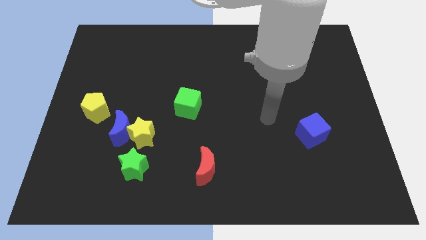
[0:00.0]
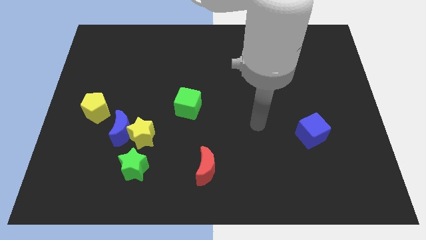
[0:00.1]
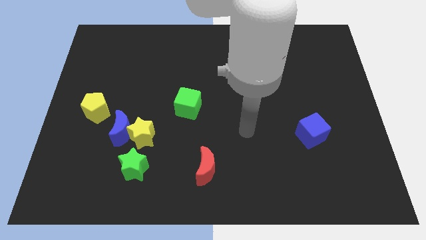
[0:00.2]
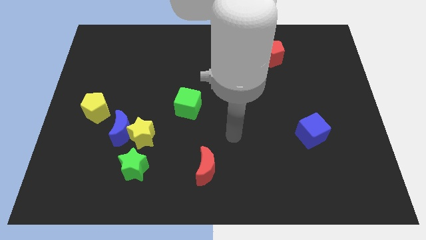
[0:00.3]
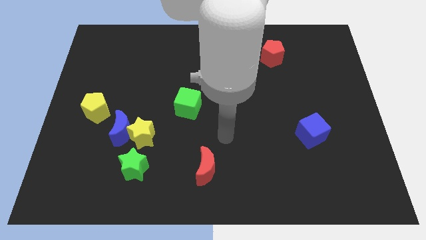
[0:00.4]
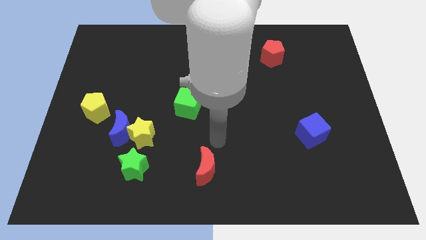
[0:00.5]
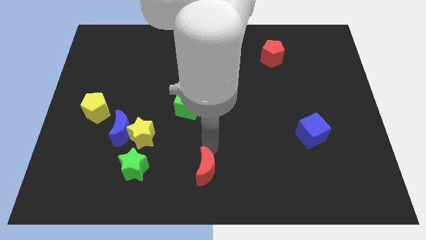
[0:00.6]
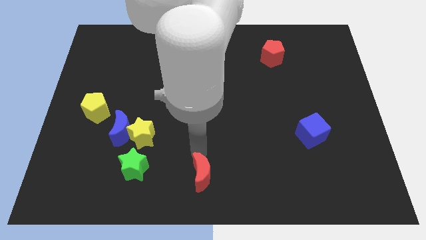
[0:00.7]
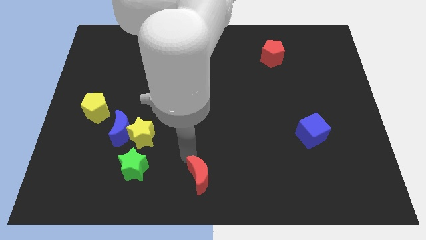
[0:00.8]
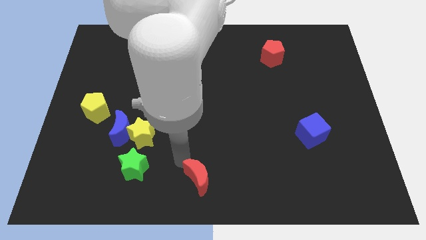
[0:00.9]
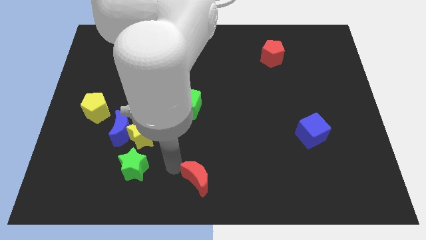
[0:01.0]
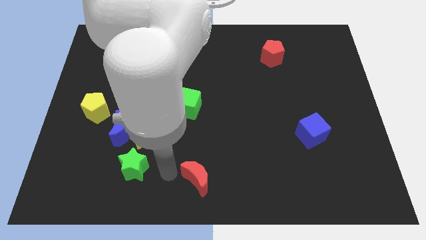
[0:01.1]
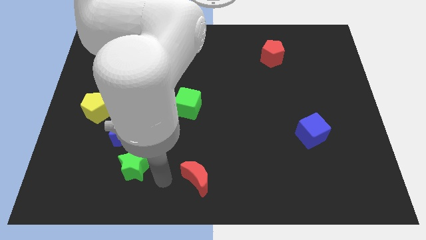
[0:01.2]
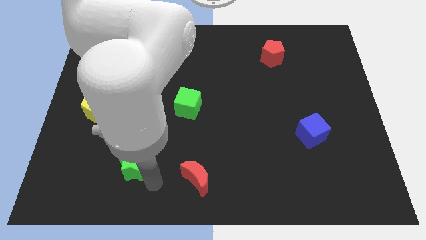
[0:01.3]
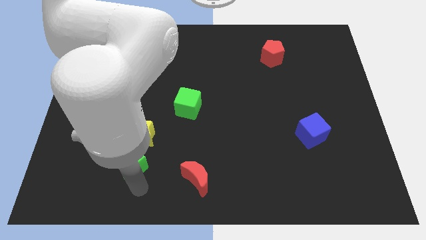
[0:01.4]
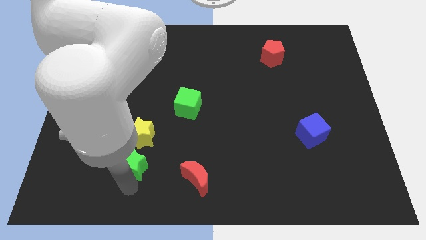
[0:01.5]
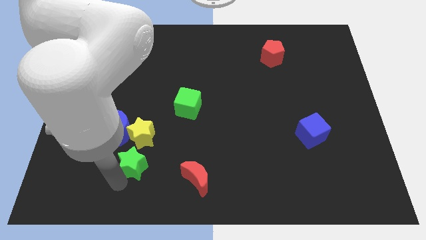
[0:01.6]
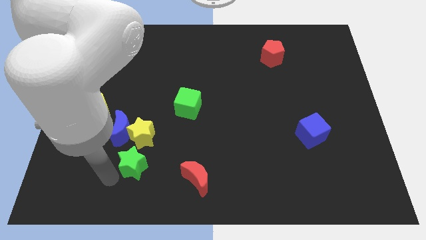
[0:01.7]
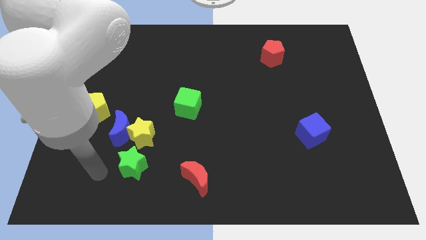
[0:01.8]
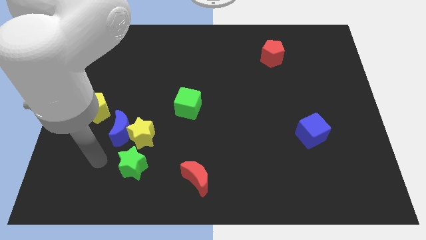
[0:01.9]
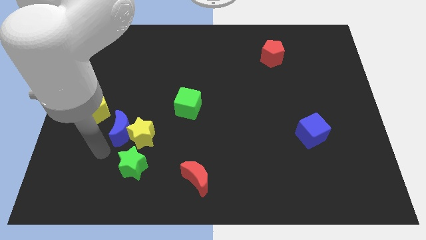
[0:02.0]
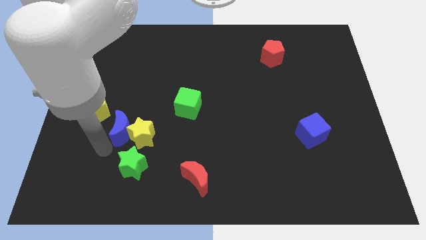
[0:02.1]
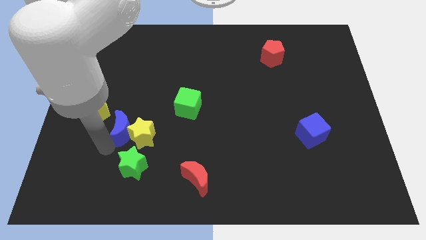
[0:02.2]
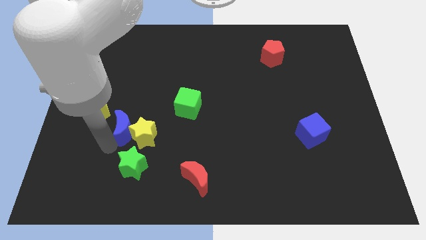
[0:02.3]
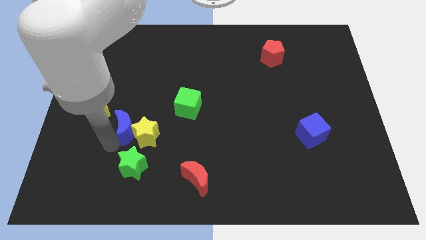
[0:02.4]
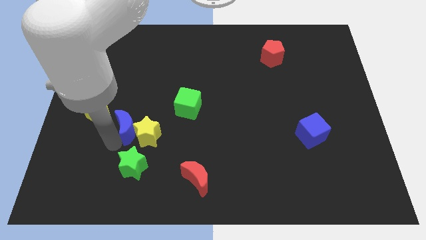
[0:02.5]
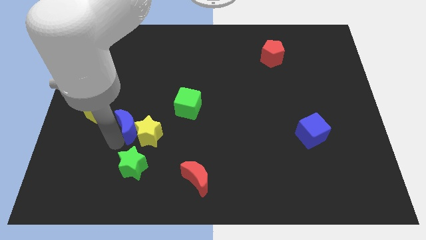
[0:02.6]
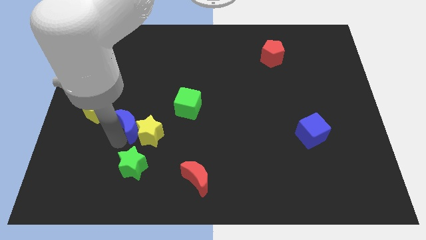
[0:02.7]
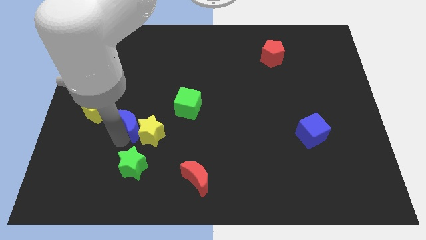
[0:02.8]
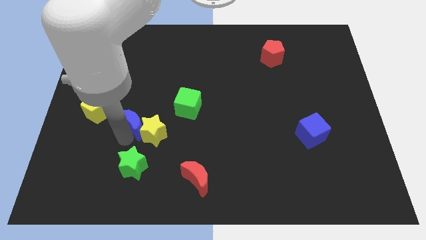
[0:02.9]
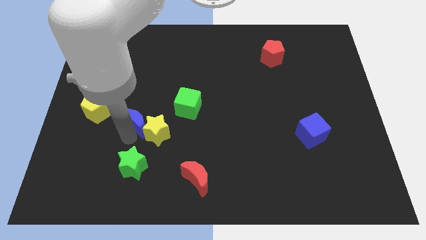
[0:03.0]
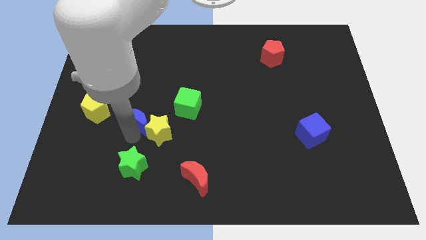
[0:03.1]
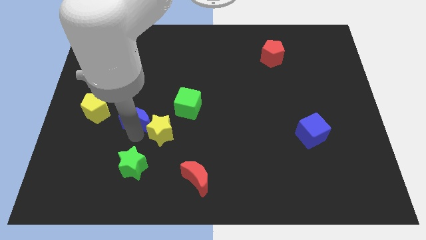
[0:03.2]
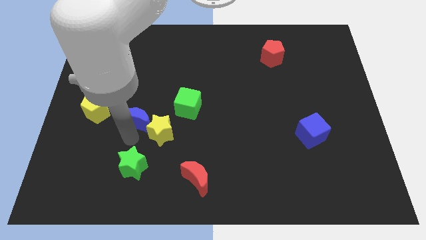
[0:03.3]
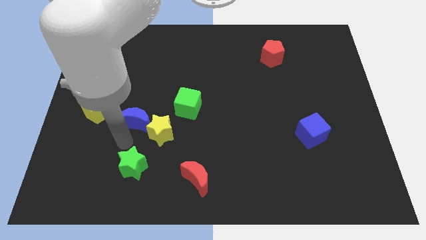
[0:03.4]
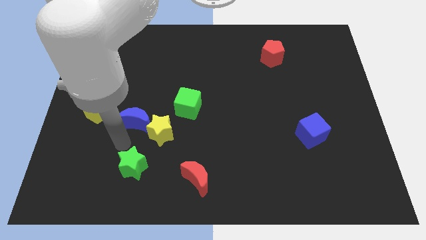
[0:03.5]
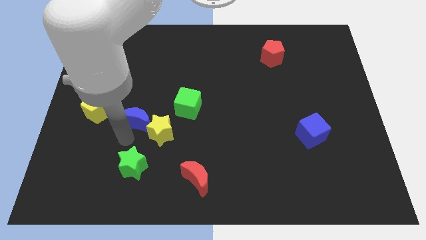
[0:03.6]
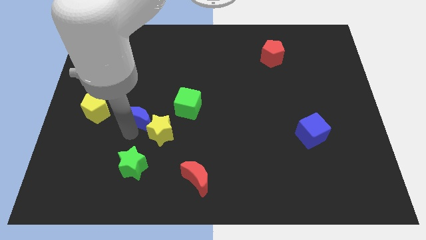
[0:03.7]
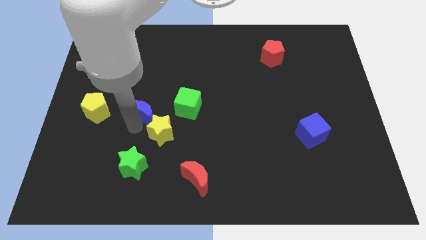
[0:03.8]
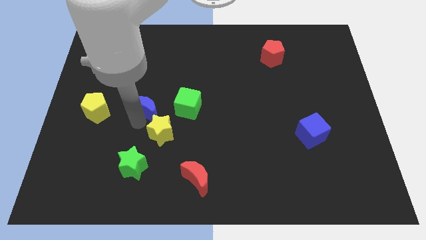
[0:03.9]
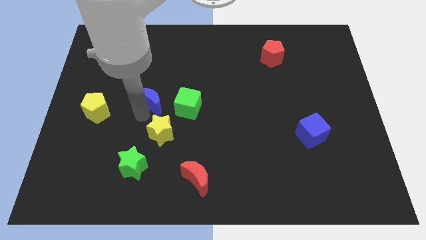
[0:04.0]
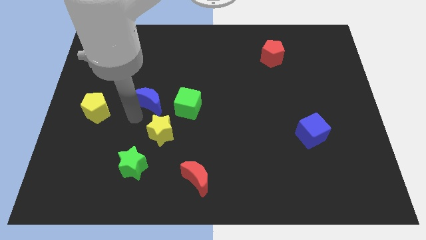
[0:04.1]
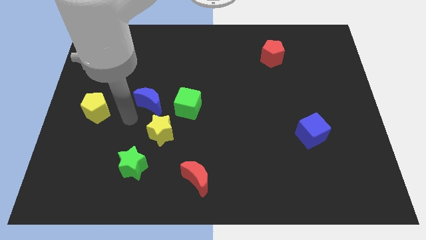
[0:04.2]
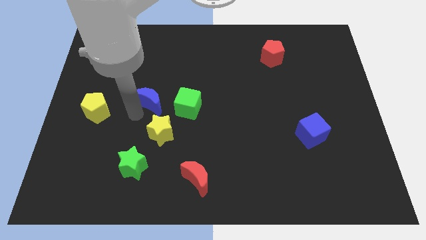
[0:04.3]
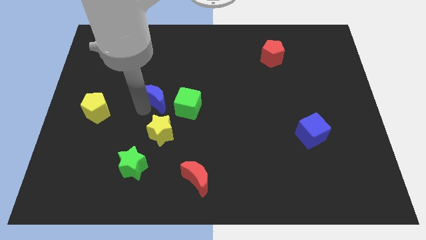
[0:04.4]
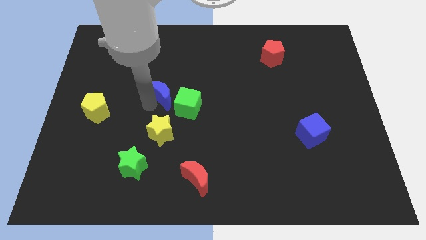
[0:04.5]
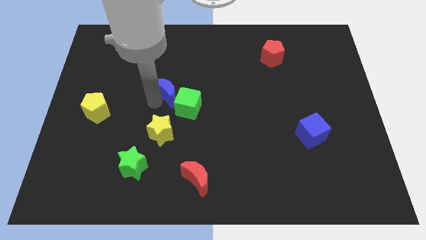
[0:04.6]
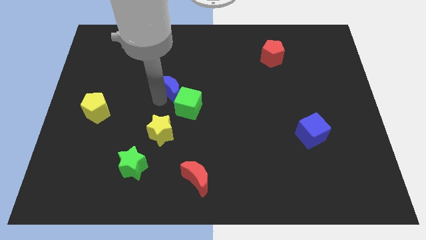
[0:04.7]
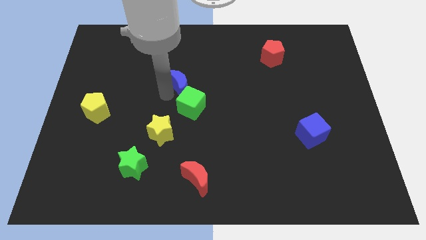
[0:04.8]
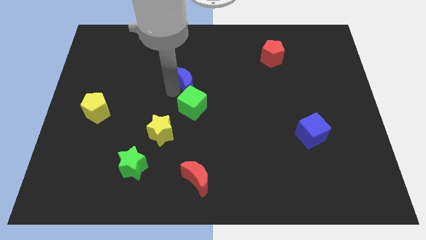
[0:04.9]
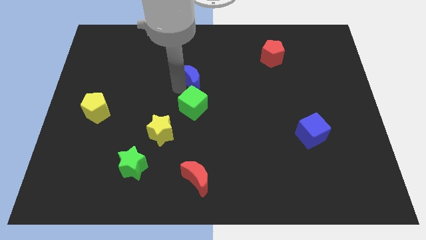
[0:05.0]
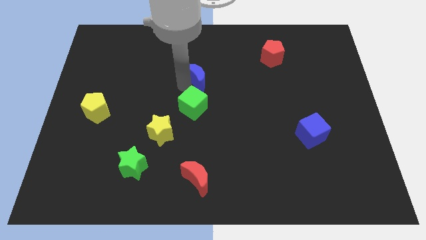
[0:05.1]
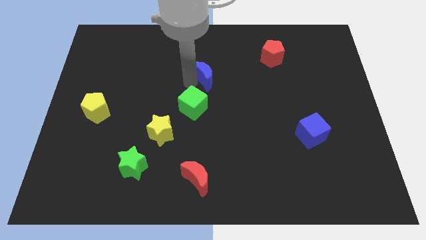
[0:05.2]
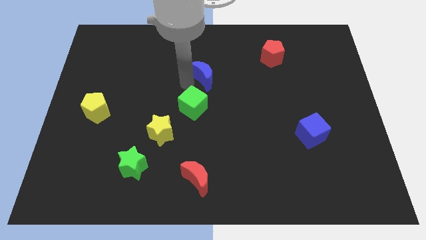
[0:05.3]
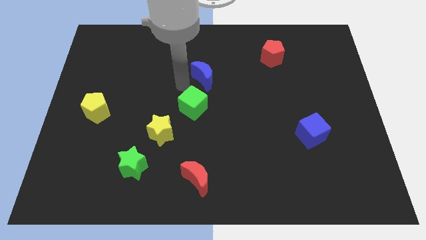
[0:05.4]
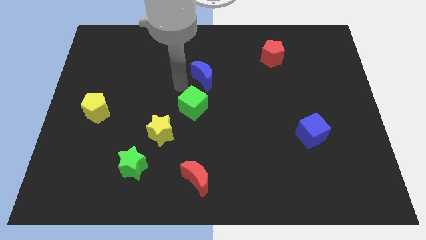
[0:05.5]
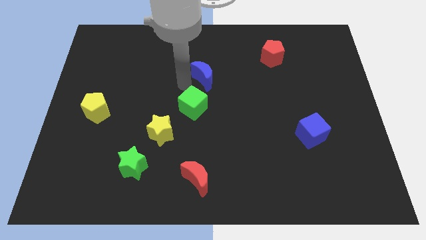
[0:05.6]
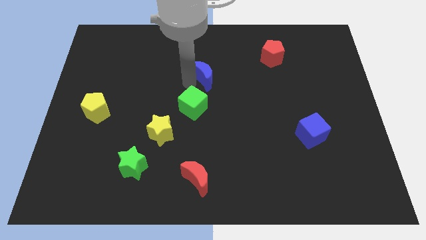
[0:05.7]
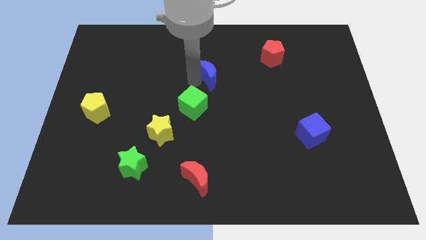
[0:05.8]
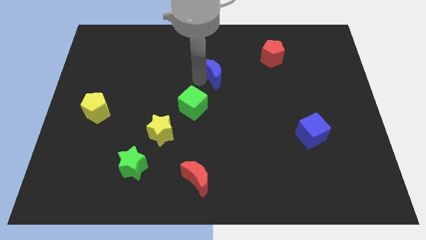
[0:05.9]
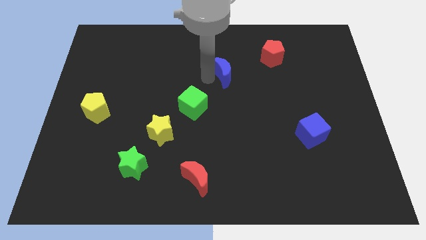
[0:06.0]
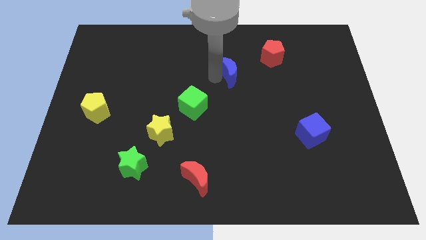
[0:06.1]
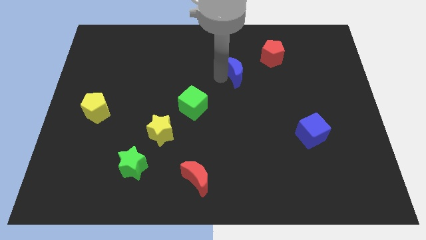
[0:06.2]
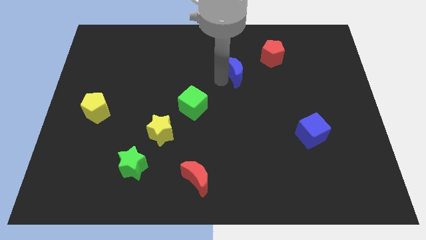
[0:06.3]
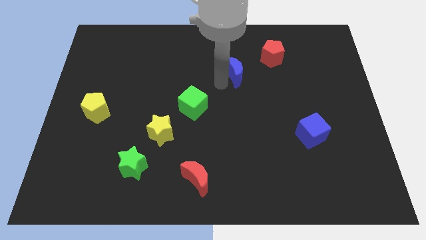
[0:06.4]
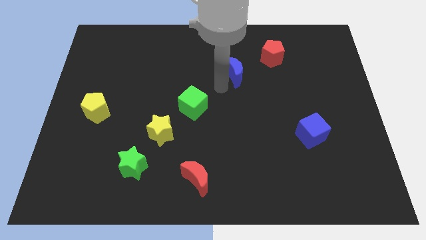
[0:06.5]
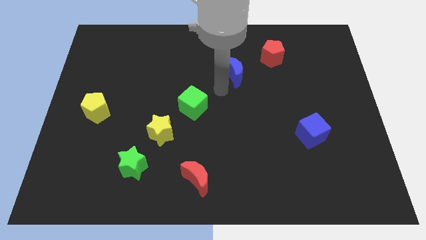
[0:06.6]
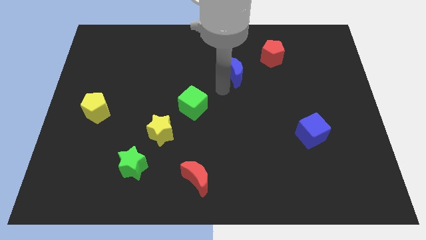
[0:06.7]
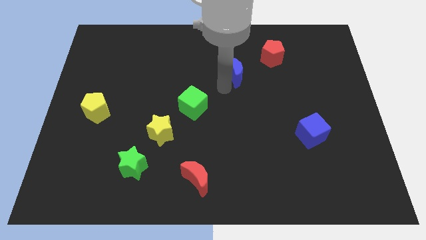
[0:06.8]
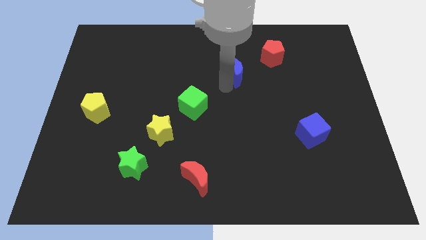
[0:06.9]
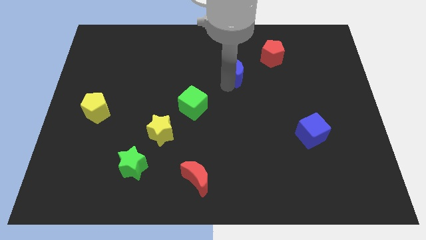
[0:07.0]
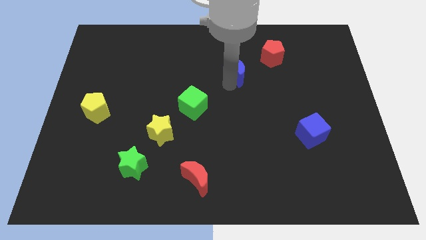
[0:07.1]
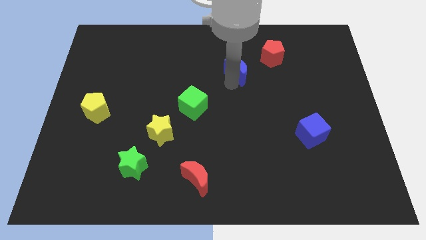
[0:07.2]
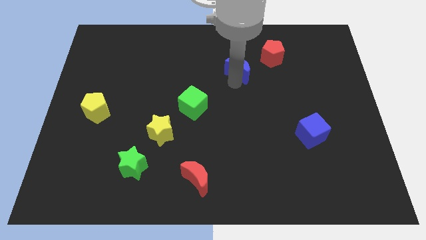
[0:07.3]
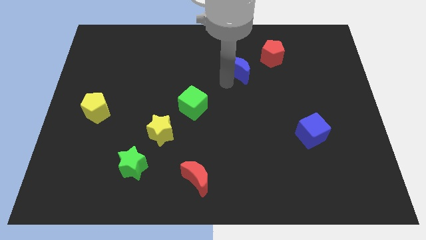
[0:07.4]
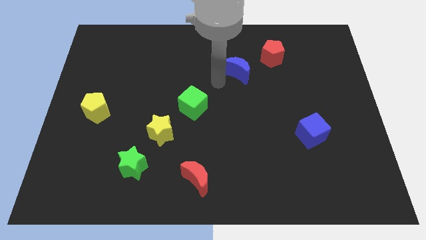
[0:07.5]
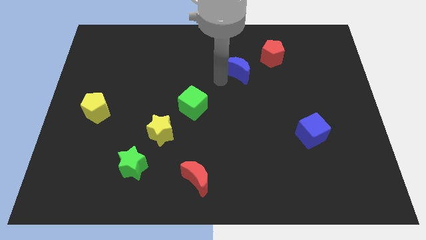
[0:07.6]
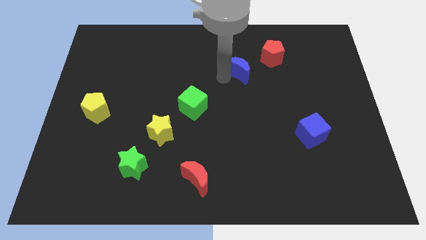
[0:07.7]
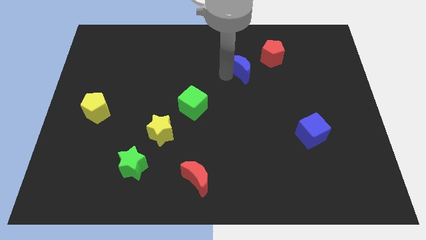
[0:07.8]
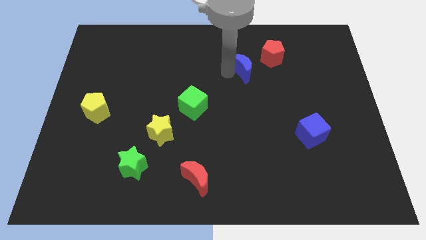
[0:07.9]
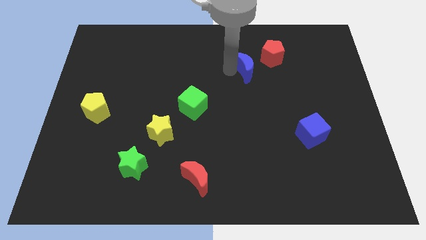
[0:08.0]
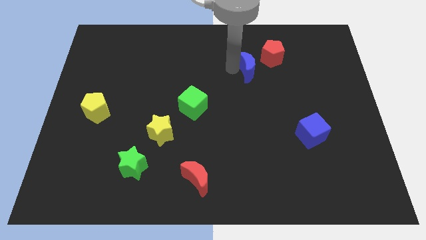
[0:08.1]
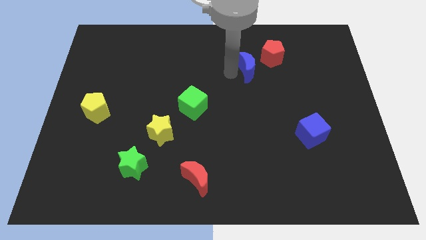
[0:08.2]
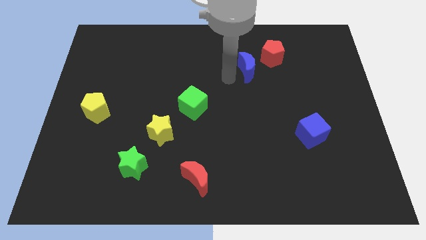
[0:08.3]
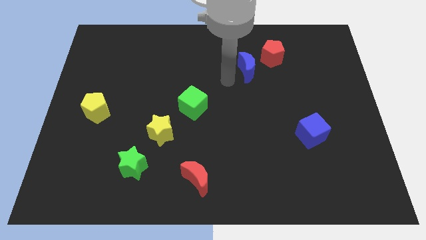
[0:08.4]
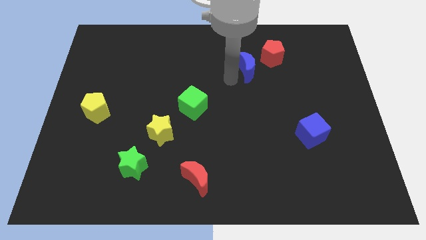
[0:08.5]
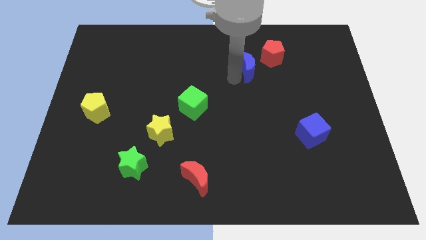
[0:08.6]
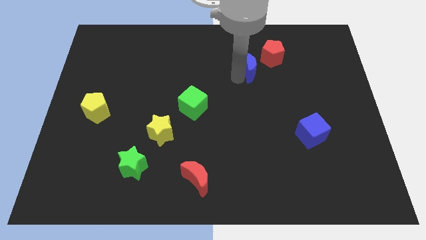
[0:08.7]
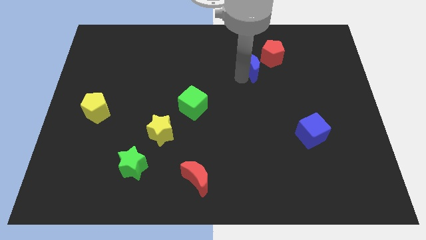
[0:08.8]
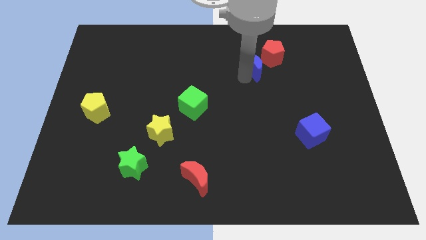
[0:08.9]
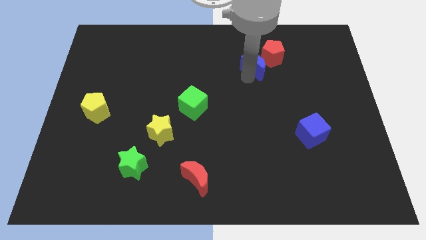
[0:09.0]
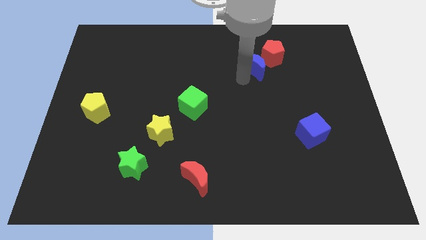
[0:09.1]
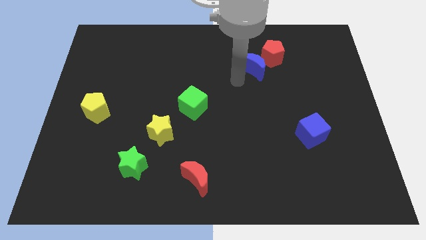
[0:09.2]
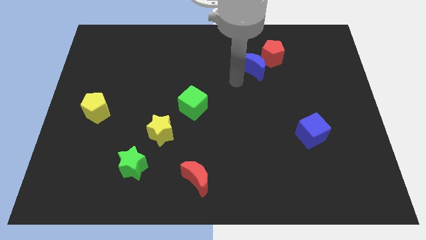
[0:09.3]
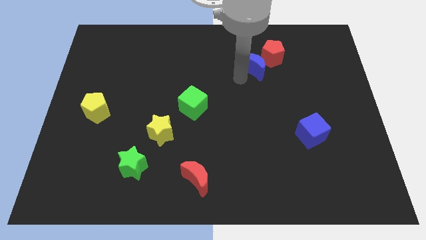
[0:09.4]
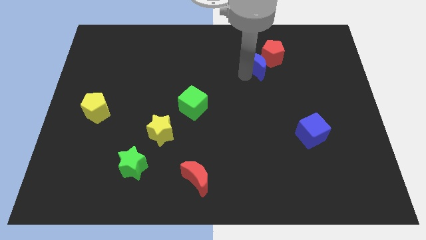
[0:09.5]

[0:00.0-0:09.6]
slide the blue moon next to the red pentagon
